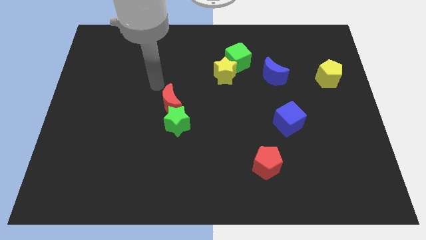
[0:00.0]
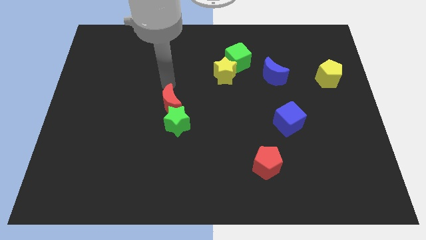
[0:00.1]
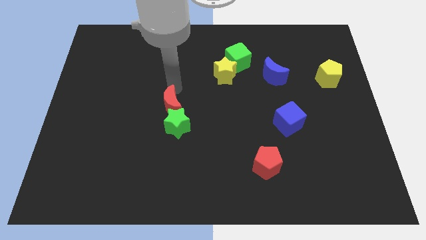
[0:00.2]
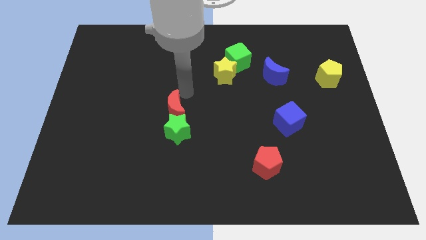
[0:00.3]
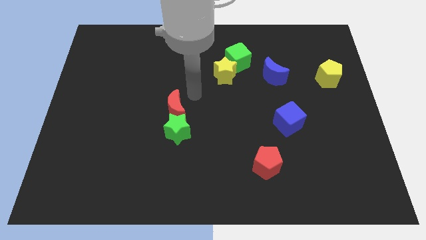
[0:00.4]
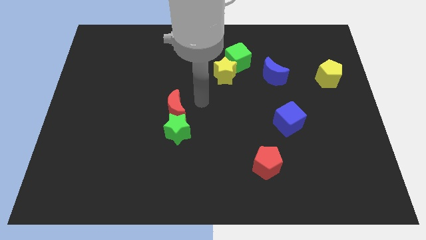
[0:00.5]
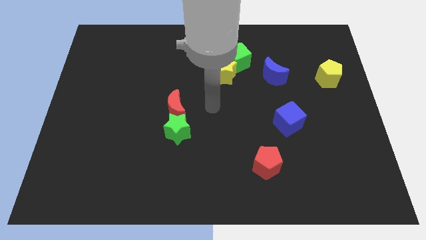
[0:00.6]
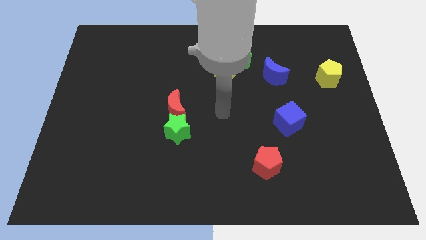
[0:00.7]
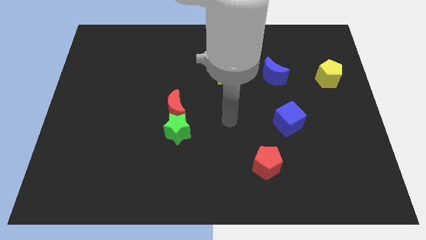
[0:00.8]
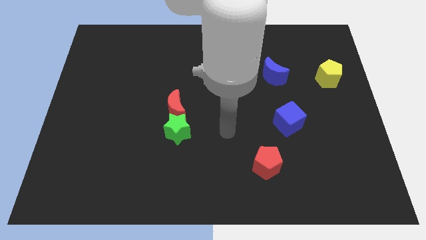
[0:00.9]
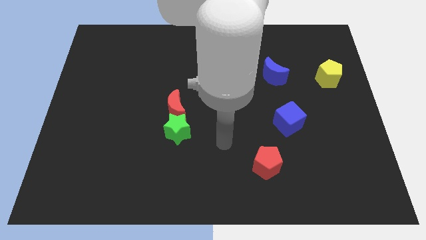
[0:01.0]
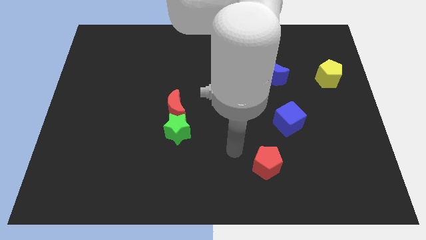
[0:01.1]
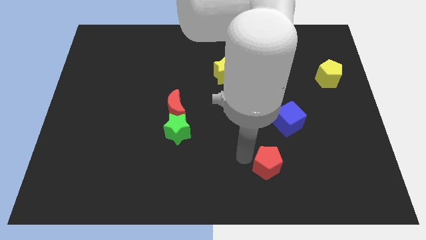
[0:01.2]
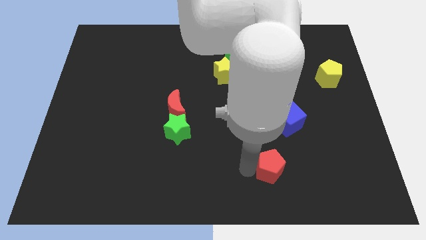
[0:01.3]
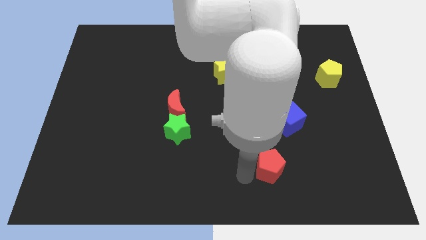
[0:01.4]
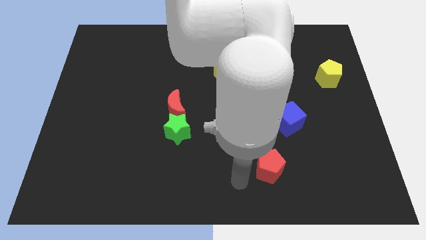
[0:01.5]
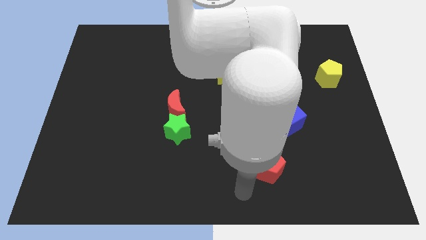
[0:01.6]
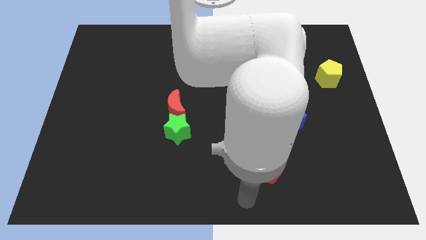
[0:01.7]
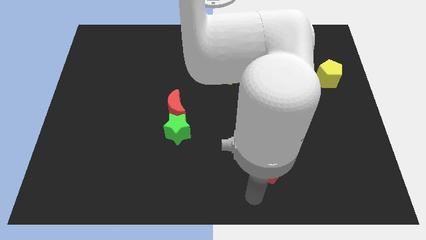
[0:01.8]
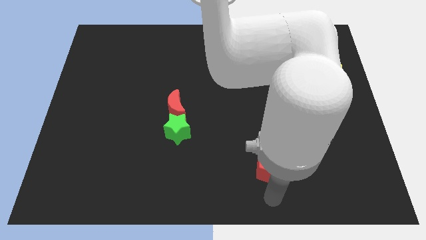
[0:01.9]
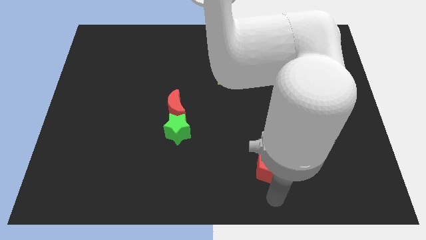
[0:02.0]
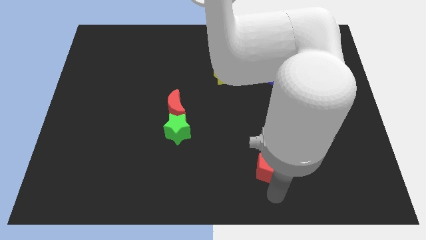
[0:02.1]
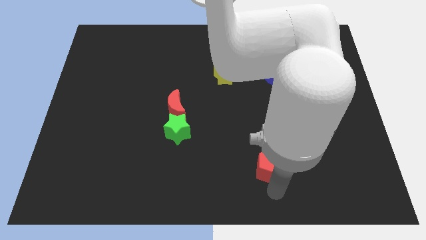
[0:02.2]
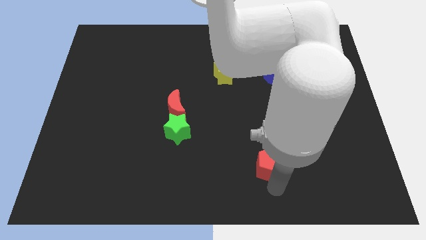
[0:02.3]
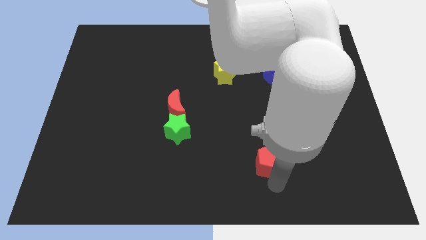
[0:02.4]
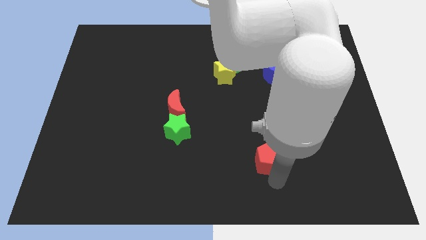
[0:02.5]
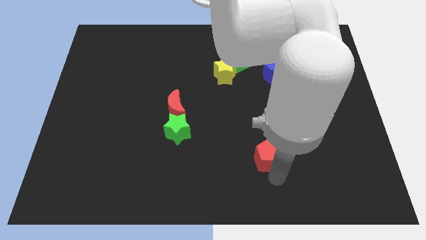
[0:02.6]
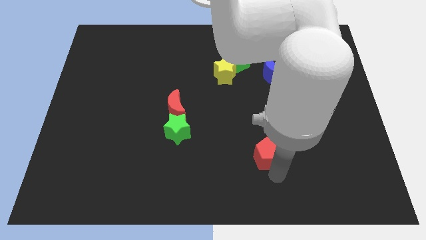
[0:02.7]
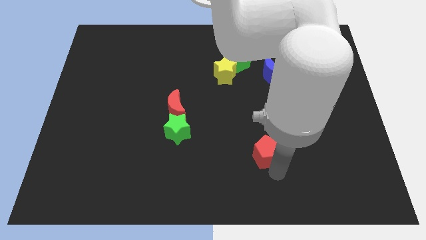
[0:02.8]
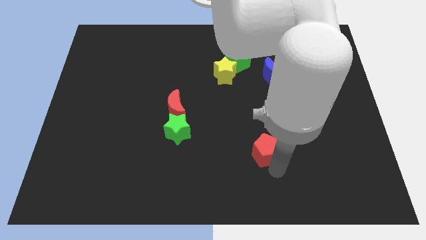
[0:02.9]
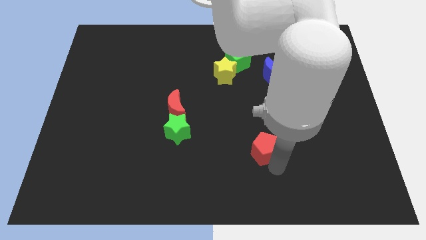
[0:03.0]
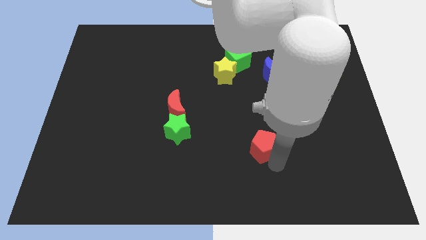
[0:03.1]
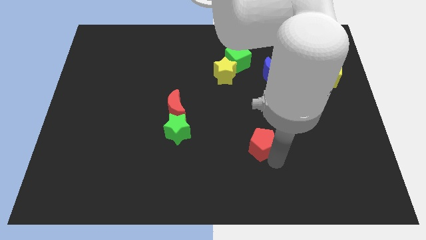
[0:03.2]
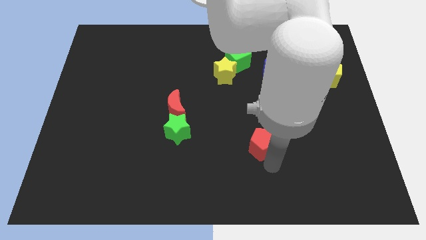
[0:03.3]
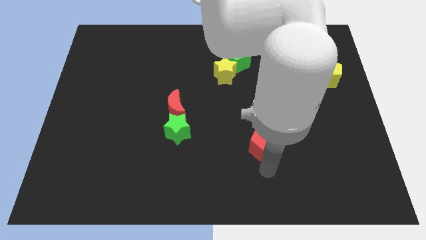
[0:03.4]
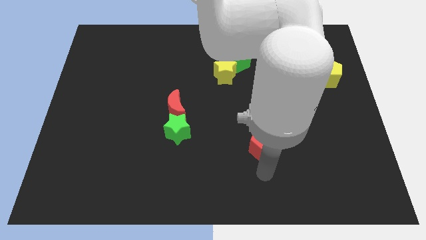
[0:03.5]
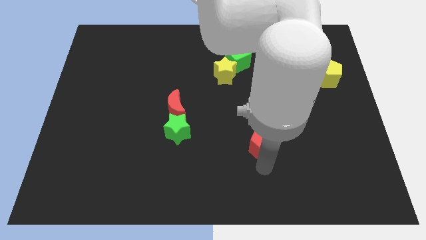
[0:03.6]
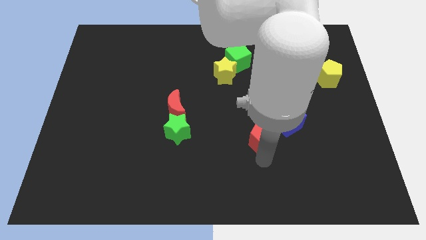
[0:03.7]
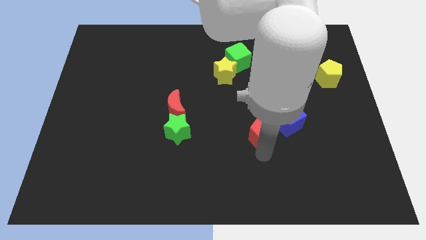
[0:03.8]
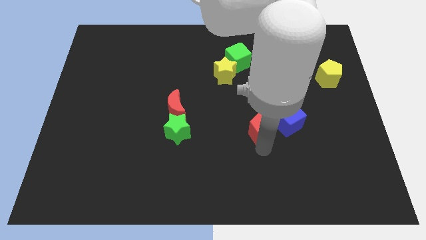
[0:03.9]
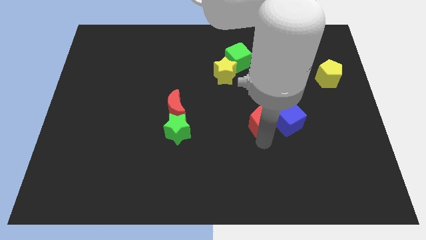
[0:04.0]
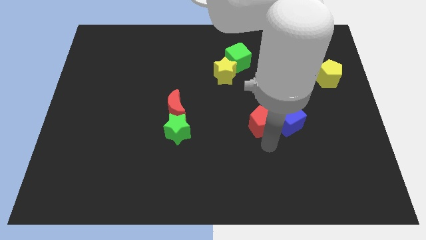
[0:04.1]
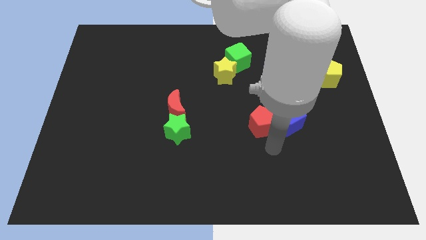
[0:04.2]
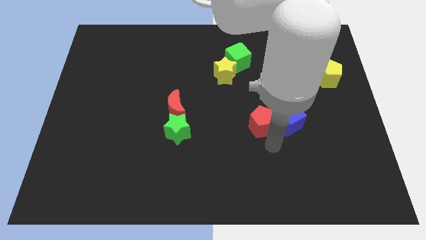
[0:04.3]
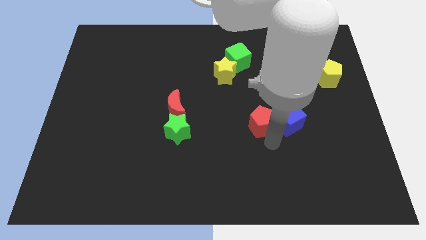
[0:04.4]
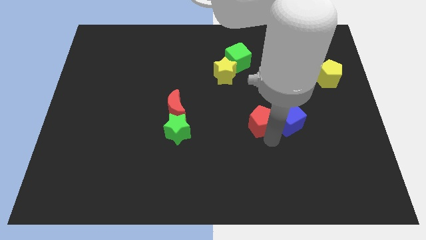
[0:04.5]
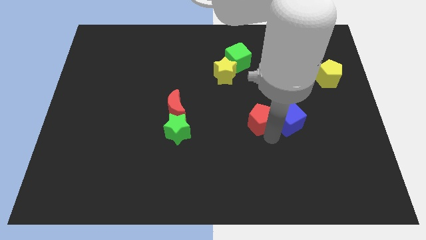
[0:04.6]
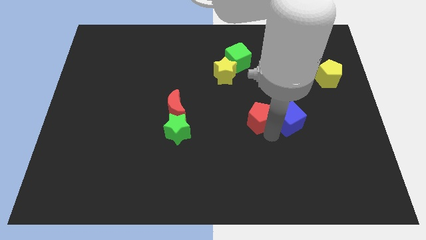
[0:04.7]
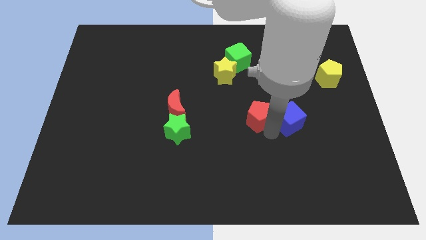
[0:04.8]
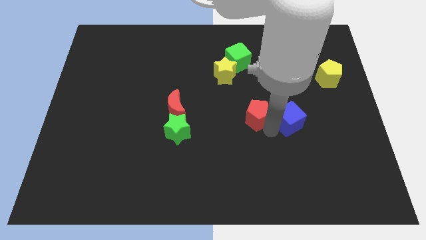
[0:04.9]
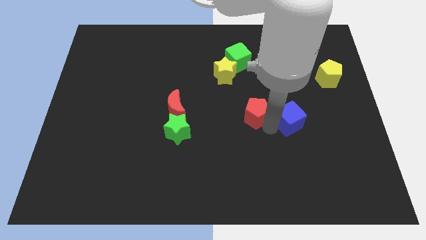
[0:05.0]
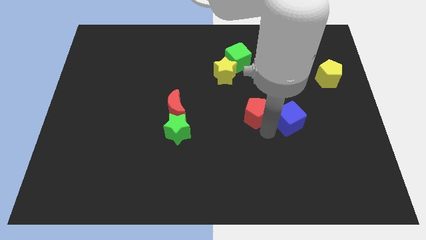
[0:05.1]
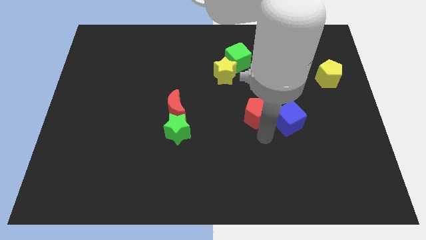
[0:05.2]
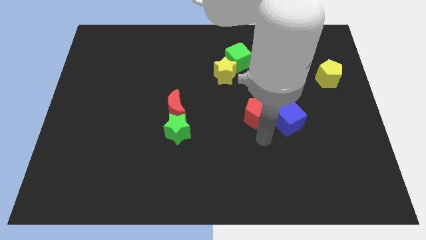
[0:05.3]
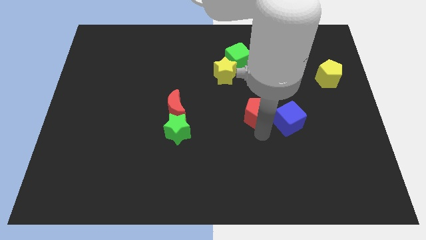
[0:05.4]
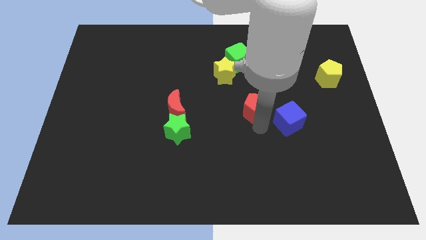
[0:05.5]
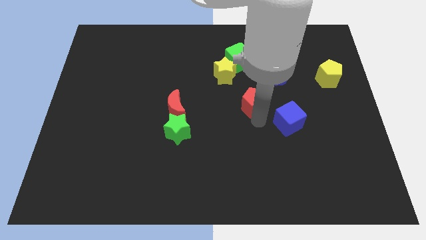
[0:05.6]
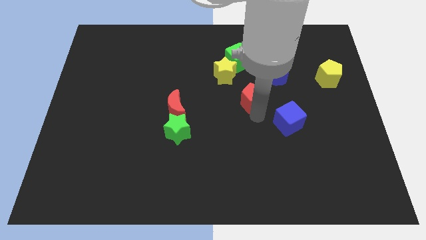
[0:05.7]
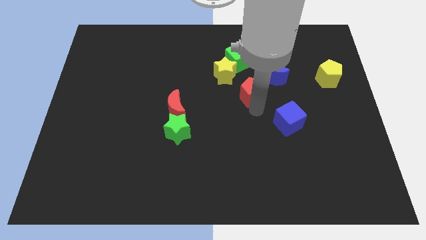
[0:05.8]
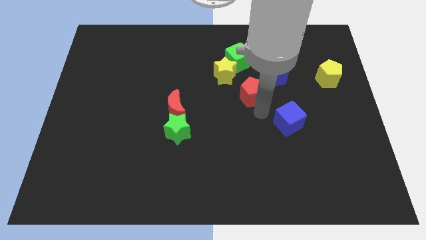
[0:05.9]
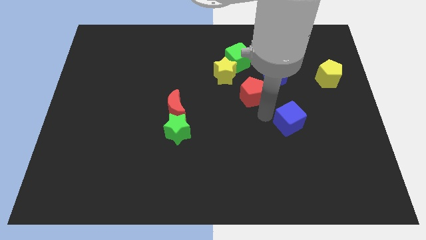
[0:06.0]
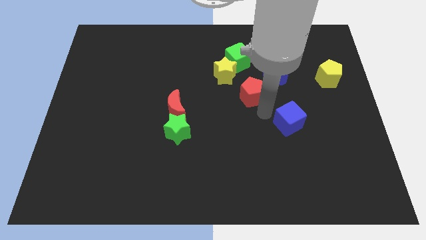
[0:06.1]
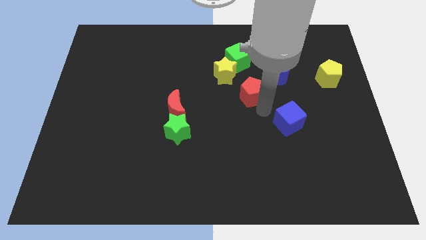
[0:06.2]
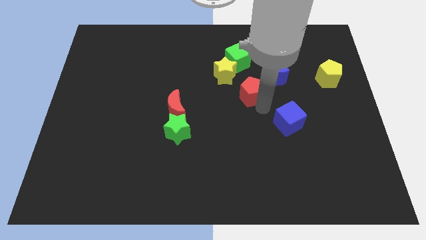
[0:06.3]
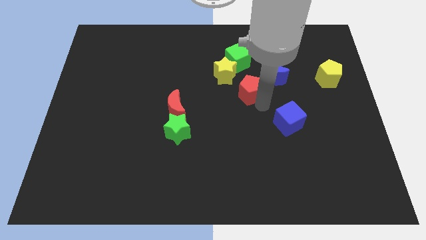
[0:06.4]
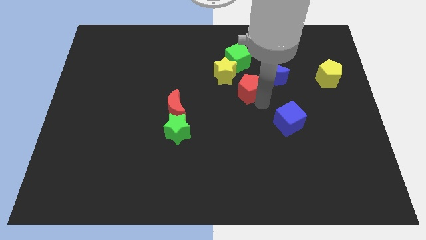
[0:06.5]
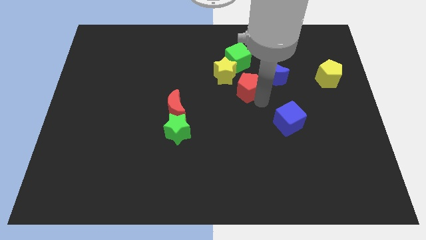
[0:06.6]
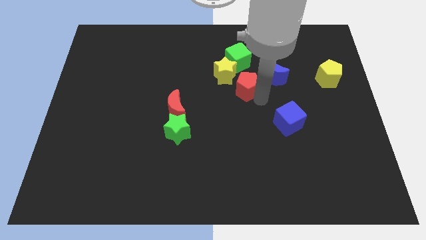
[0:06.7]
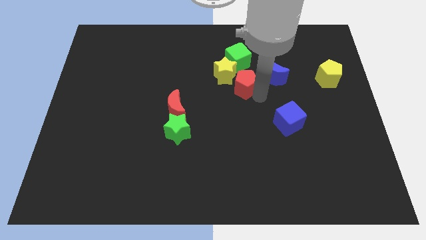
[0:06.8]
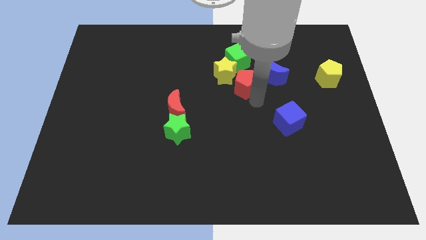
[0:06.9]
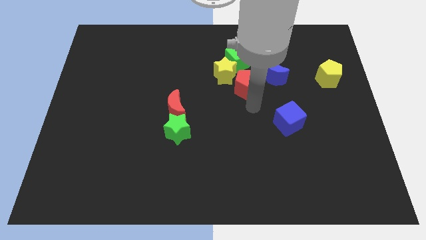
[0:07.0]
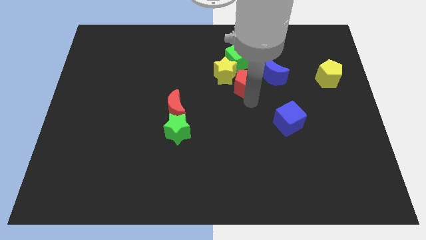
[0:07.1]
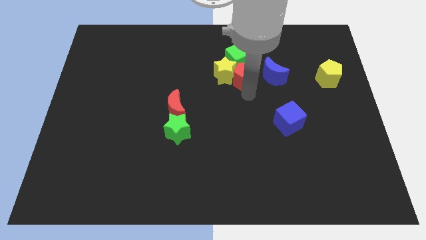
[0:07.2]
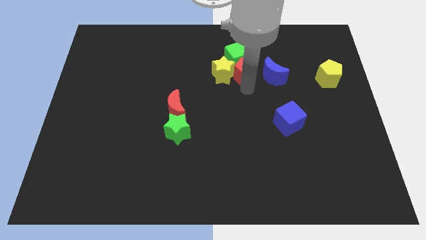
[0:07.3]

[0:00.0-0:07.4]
push the red pentagon towards the green cube
